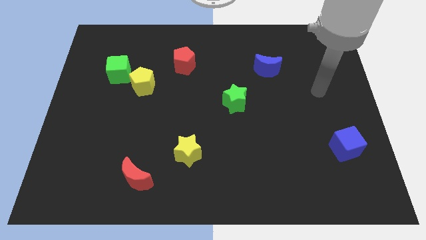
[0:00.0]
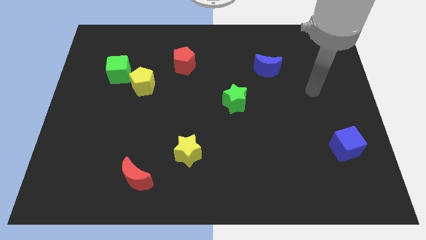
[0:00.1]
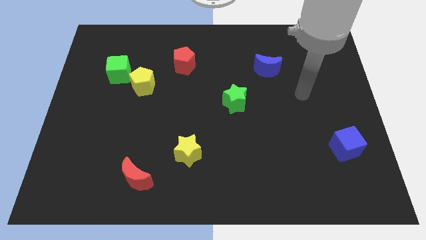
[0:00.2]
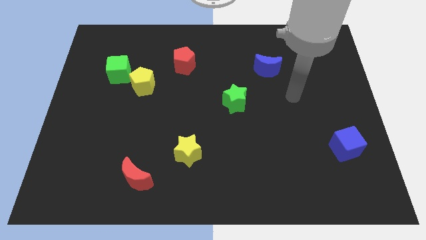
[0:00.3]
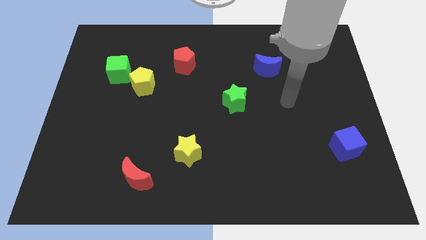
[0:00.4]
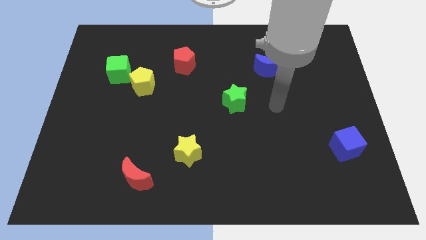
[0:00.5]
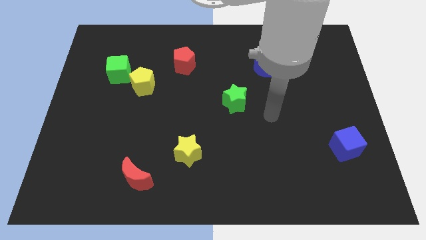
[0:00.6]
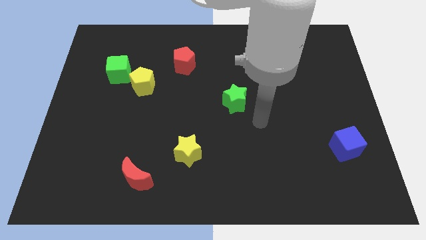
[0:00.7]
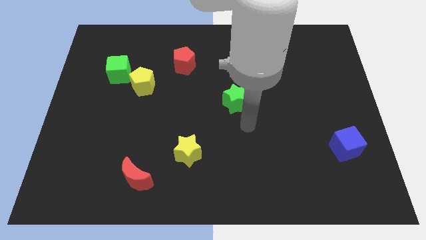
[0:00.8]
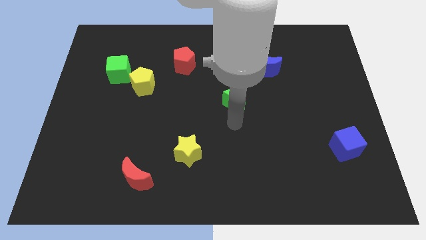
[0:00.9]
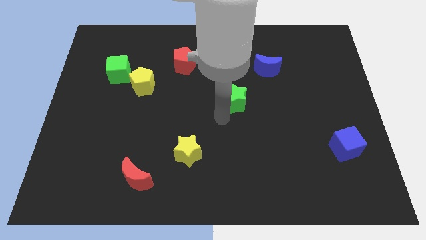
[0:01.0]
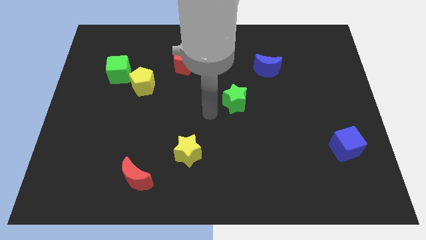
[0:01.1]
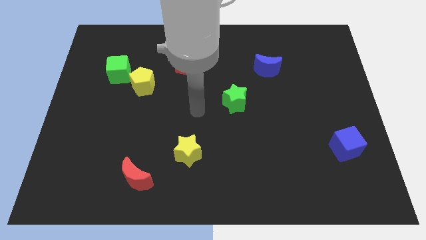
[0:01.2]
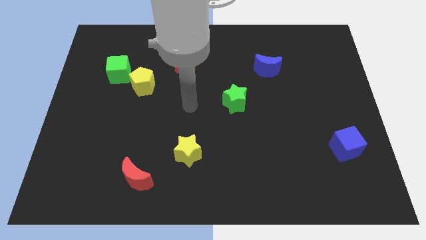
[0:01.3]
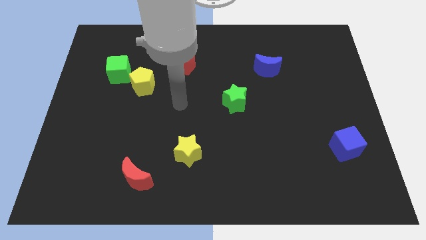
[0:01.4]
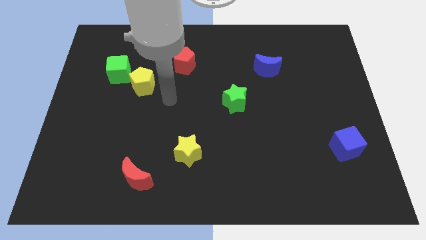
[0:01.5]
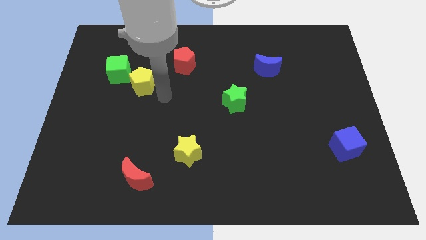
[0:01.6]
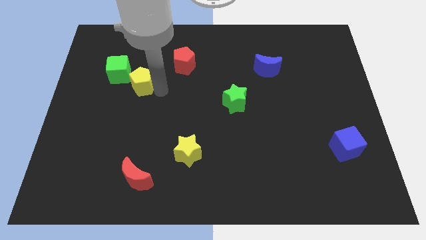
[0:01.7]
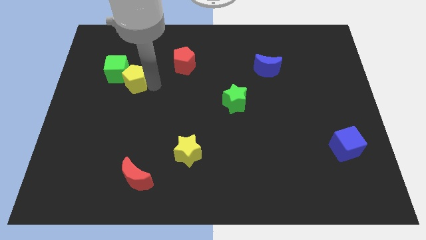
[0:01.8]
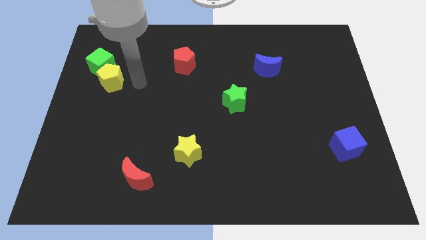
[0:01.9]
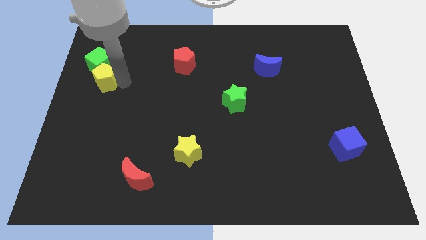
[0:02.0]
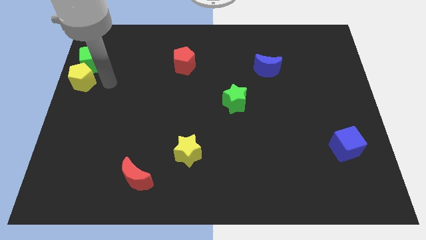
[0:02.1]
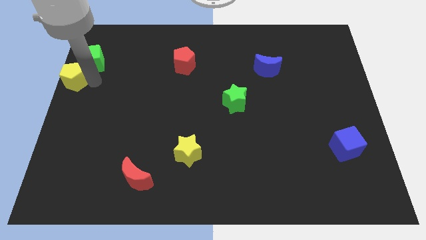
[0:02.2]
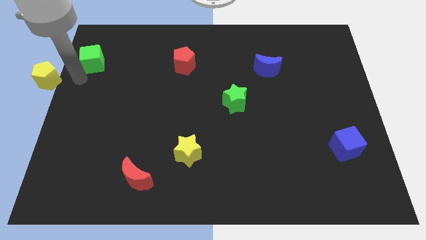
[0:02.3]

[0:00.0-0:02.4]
separate the green cube from the yellow pentagon

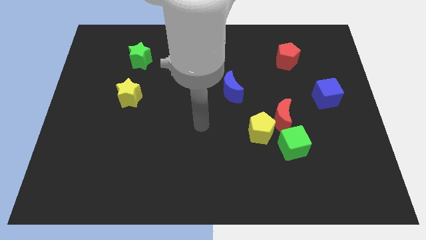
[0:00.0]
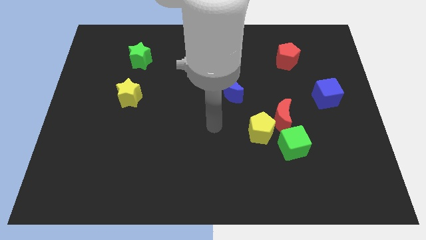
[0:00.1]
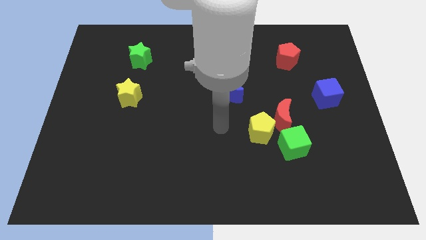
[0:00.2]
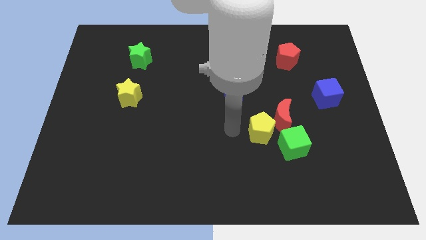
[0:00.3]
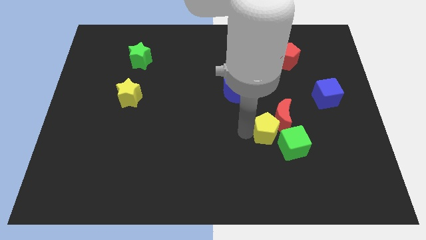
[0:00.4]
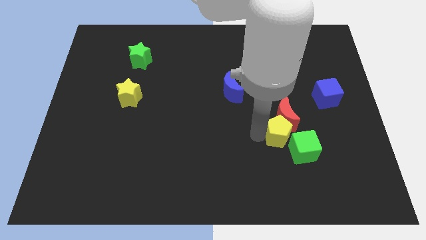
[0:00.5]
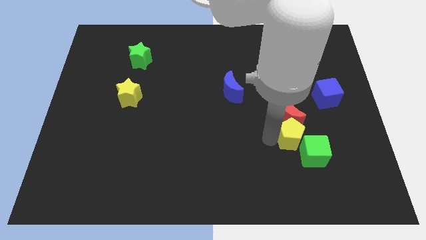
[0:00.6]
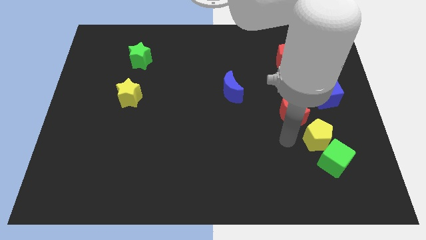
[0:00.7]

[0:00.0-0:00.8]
separate the red moon from the yellow pentagon and green cube

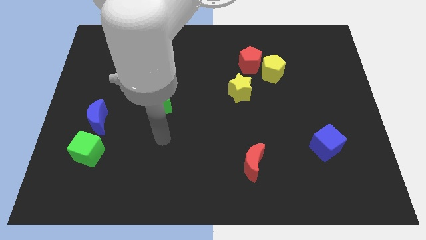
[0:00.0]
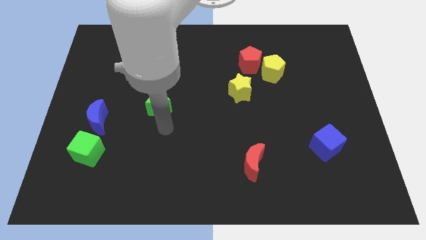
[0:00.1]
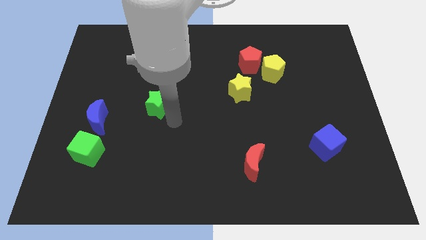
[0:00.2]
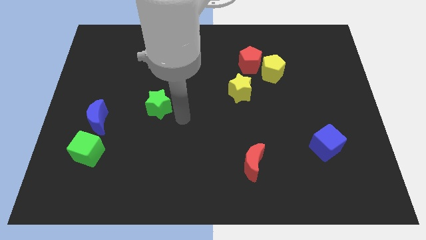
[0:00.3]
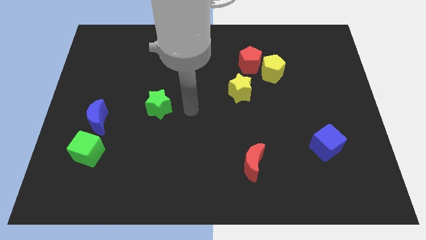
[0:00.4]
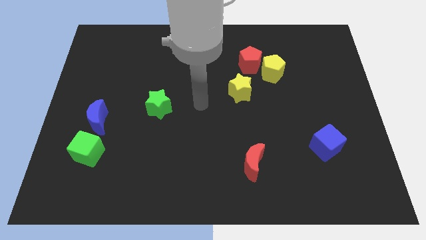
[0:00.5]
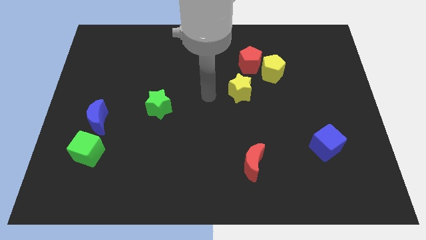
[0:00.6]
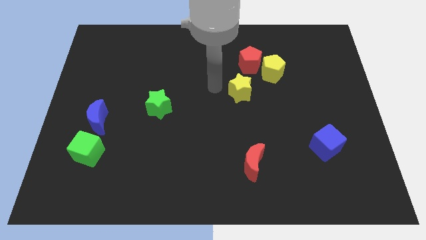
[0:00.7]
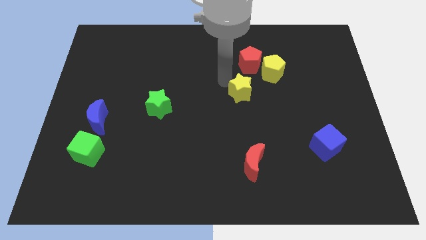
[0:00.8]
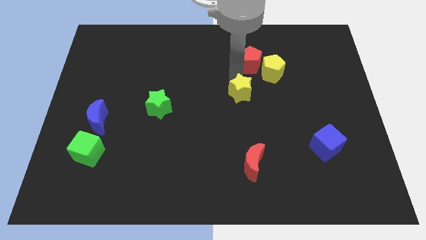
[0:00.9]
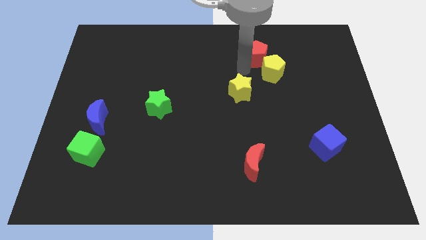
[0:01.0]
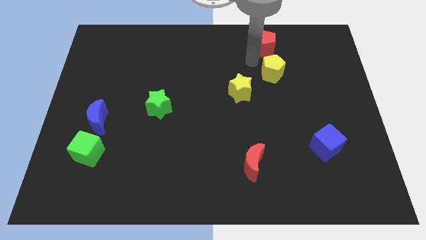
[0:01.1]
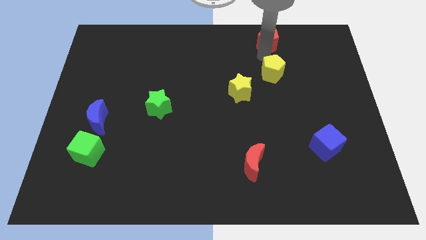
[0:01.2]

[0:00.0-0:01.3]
pull the yellow pentagon apart from the red pentagon

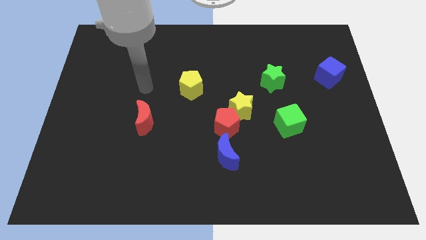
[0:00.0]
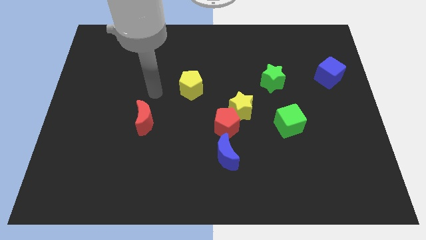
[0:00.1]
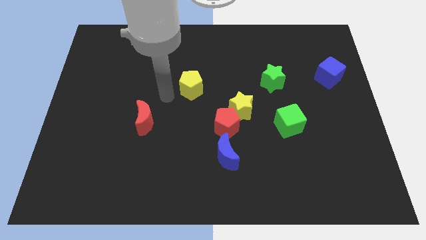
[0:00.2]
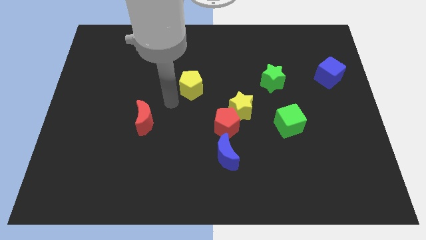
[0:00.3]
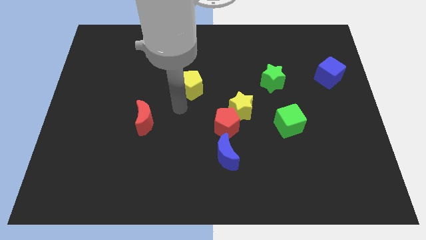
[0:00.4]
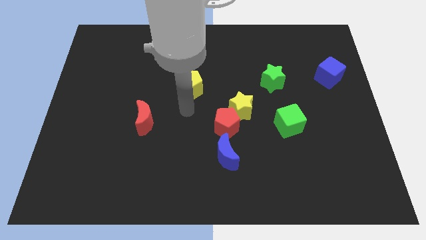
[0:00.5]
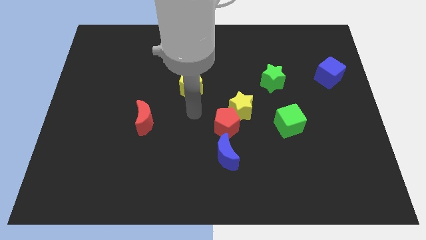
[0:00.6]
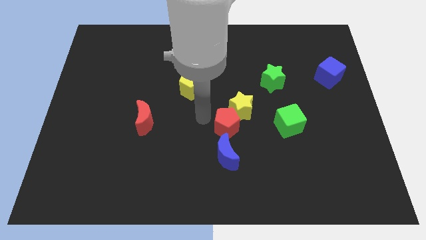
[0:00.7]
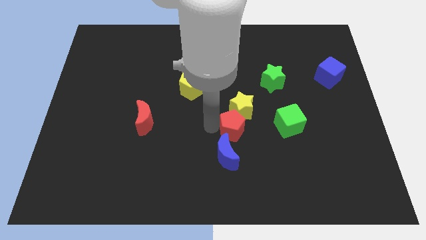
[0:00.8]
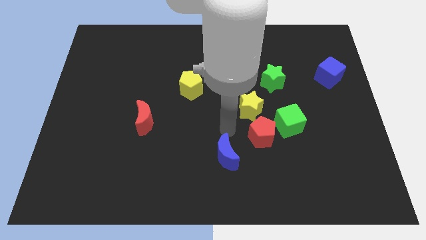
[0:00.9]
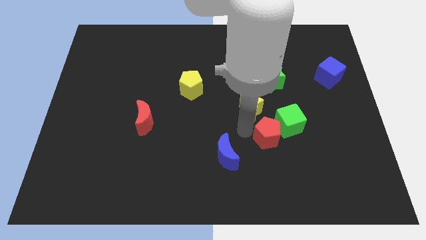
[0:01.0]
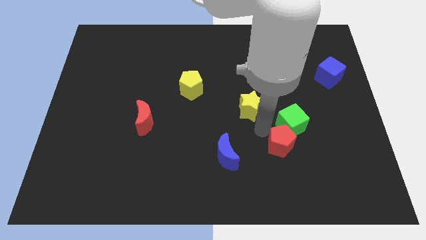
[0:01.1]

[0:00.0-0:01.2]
pull the yellow star apart from the red pentagon

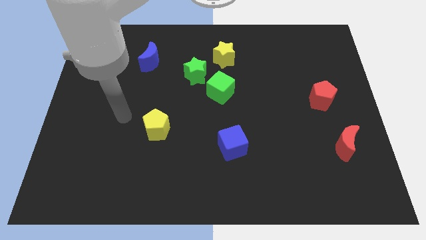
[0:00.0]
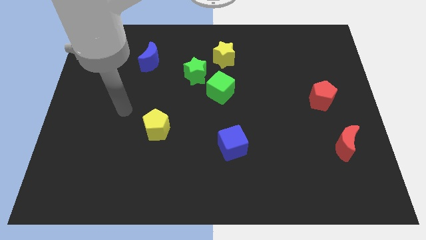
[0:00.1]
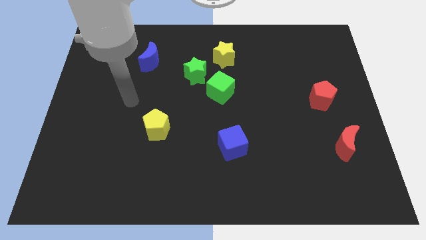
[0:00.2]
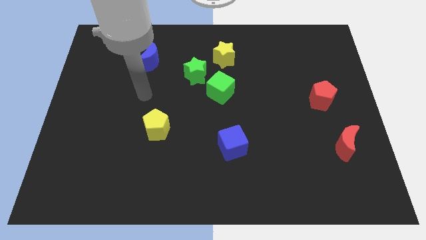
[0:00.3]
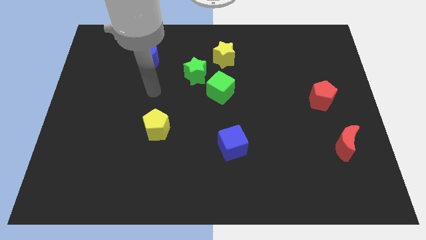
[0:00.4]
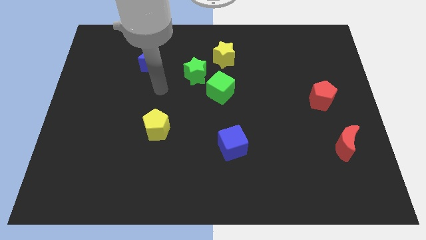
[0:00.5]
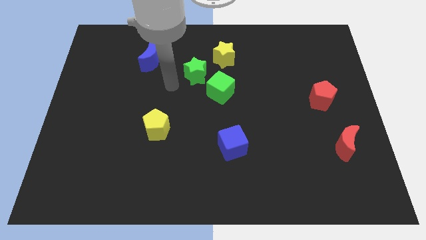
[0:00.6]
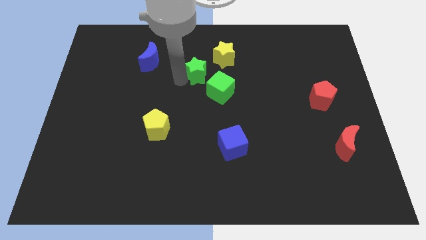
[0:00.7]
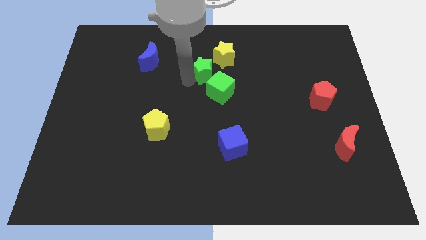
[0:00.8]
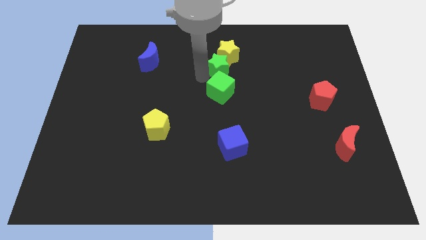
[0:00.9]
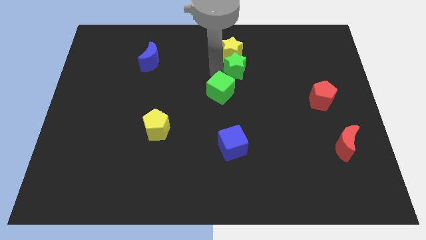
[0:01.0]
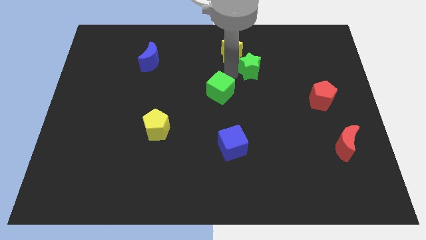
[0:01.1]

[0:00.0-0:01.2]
separate the green cube from the green star

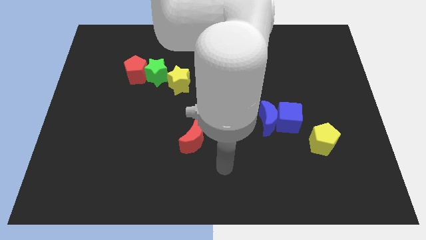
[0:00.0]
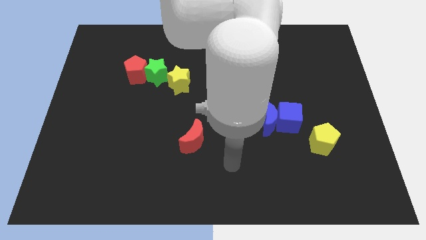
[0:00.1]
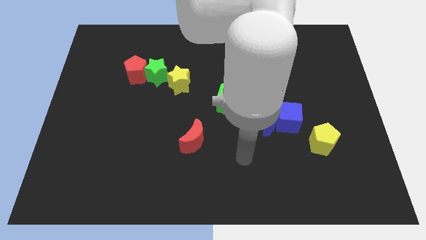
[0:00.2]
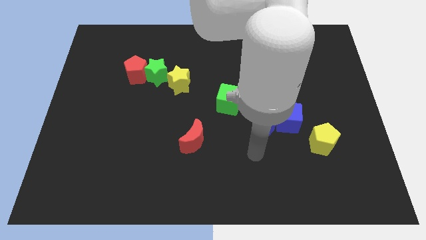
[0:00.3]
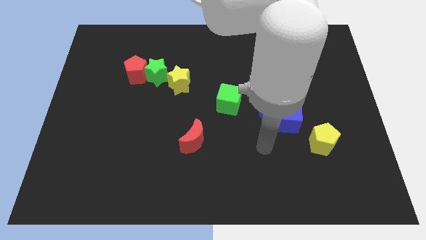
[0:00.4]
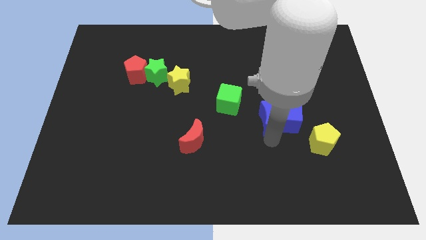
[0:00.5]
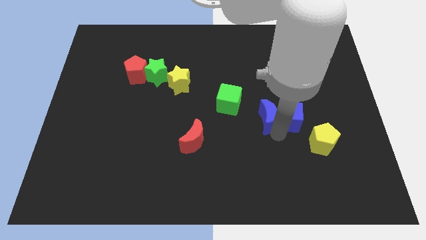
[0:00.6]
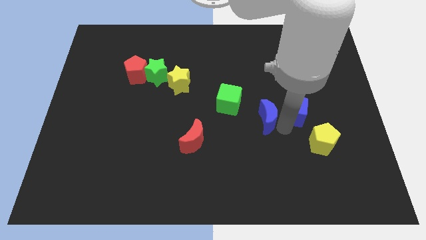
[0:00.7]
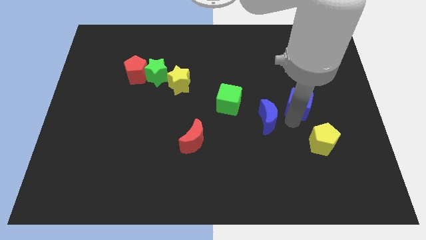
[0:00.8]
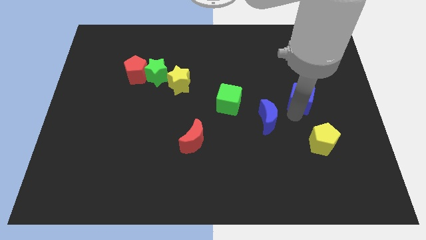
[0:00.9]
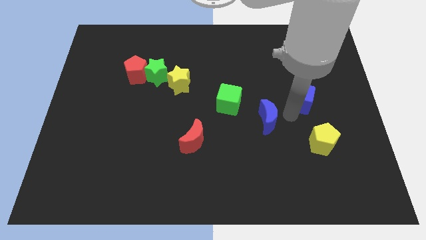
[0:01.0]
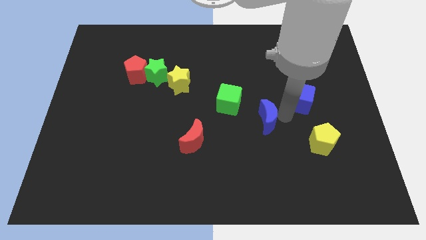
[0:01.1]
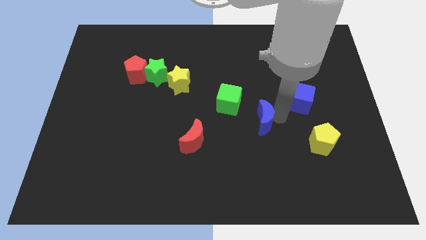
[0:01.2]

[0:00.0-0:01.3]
pull the blue moon apart from the blue cube

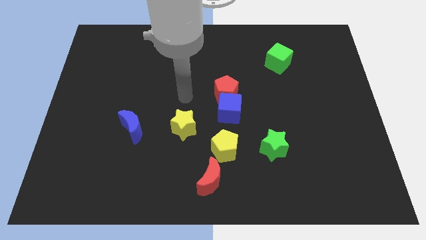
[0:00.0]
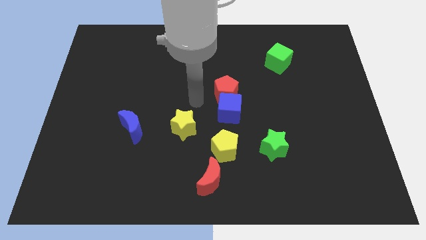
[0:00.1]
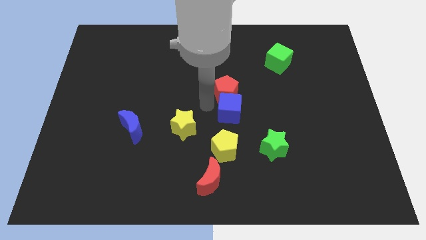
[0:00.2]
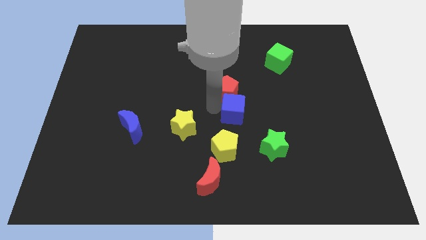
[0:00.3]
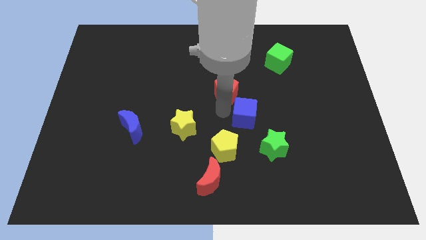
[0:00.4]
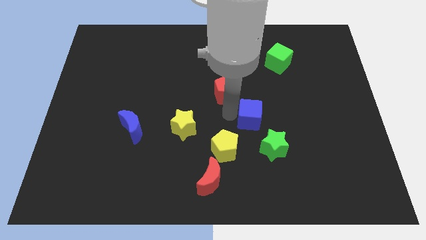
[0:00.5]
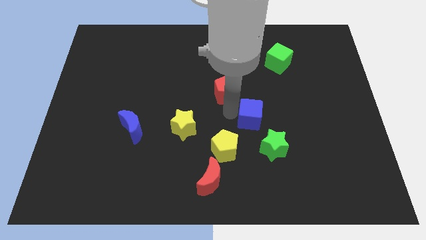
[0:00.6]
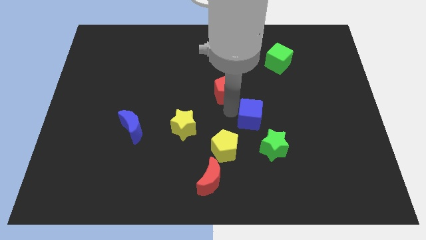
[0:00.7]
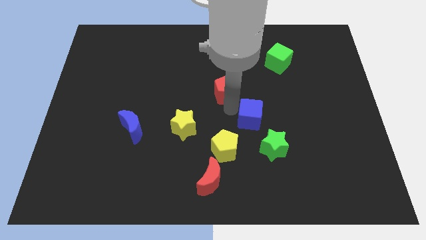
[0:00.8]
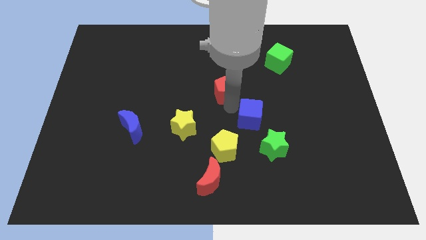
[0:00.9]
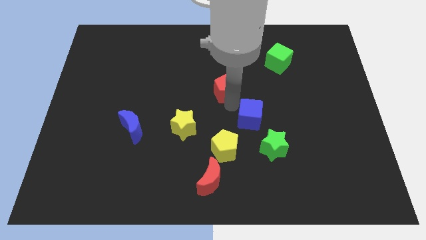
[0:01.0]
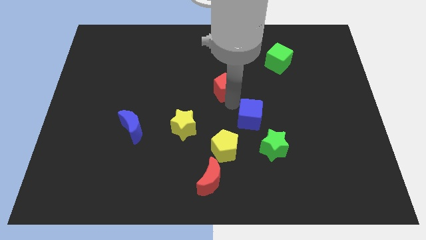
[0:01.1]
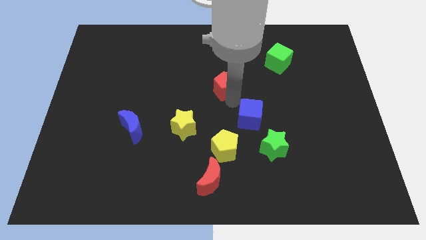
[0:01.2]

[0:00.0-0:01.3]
separate the red pentagon from the blue cube
